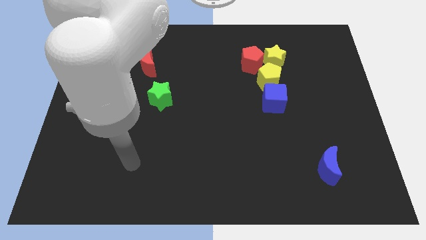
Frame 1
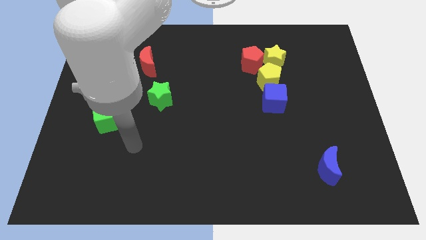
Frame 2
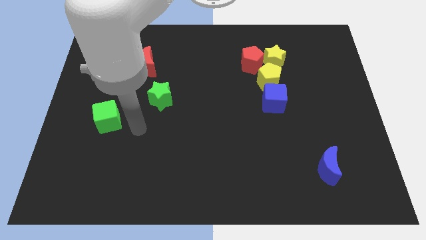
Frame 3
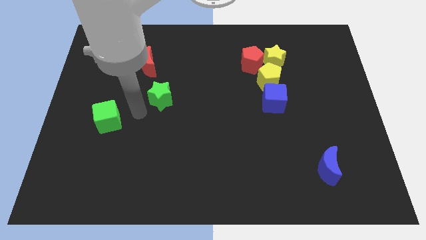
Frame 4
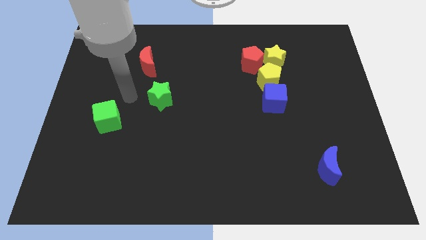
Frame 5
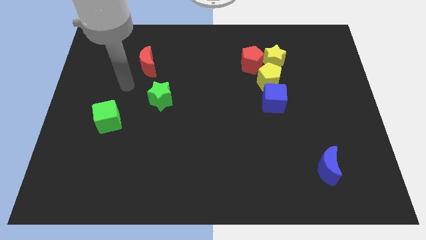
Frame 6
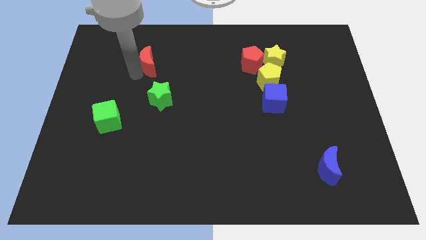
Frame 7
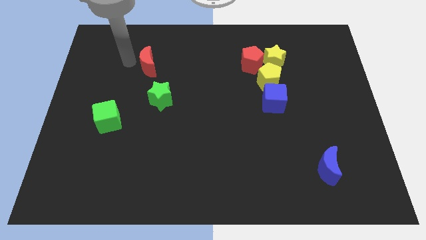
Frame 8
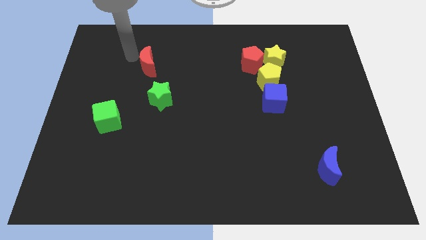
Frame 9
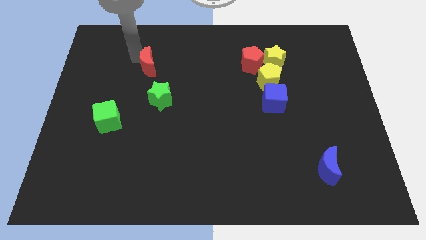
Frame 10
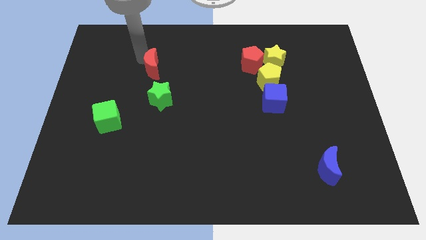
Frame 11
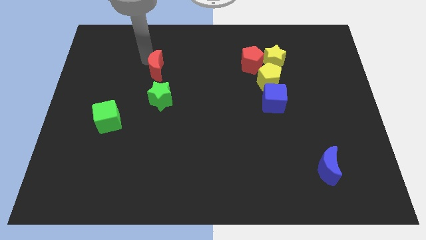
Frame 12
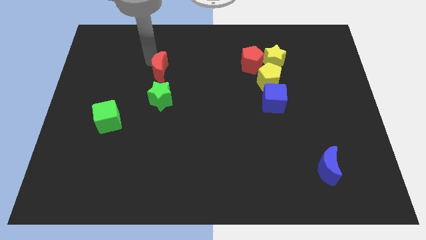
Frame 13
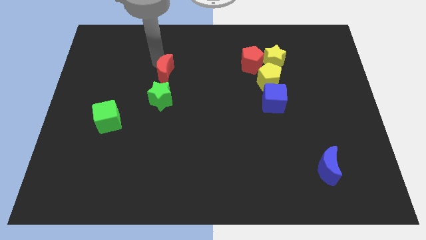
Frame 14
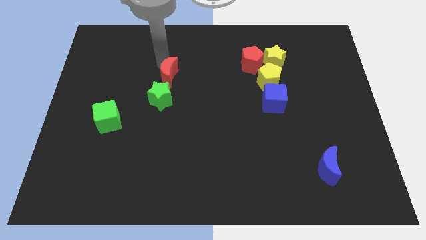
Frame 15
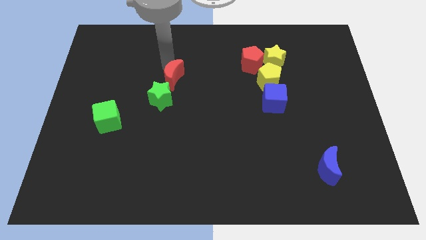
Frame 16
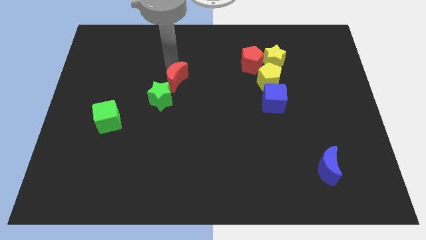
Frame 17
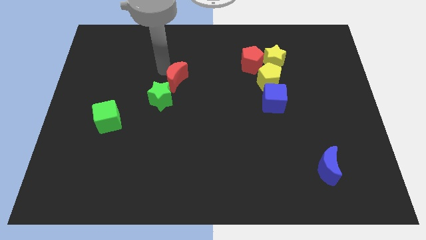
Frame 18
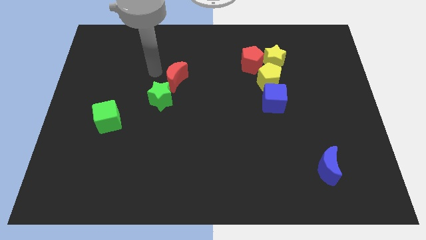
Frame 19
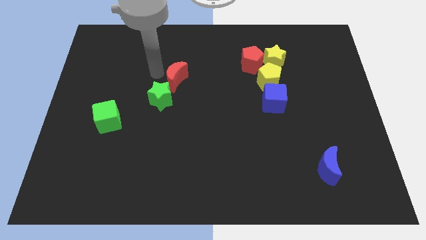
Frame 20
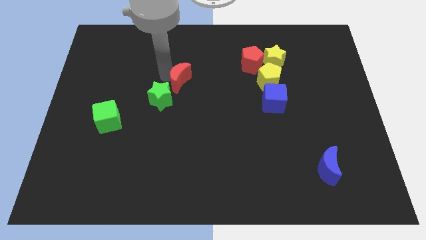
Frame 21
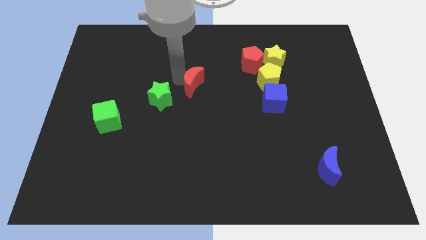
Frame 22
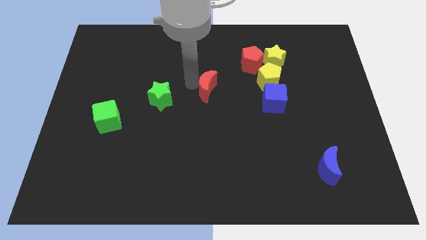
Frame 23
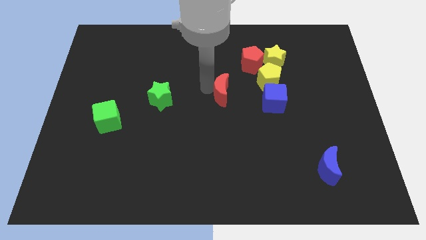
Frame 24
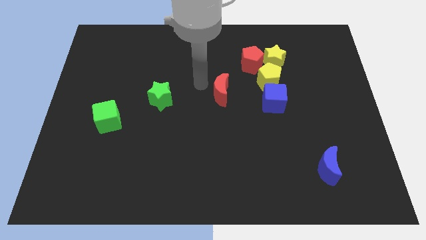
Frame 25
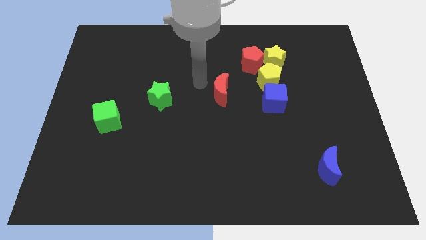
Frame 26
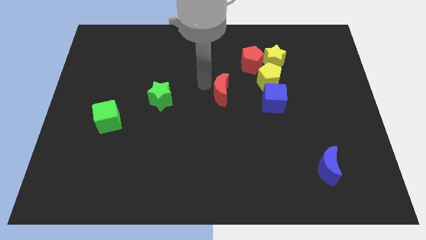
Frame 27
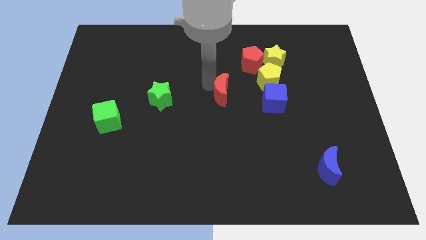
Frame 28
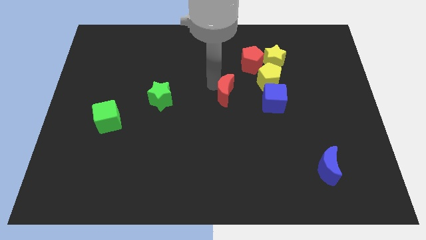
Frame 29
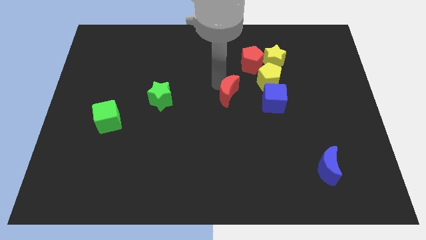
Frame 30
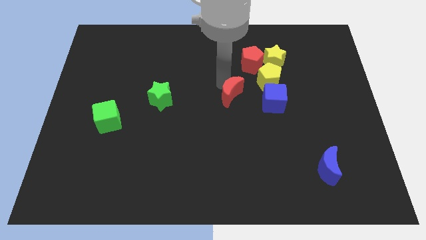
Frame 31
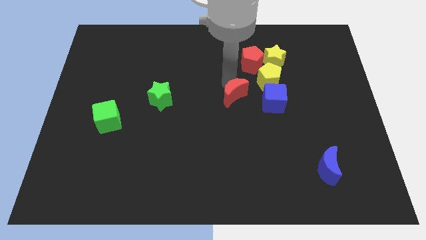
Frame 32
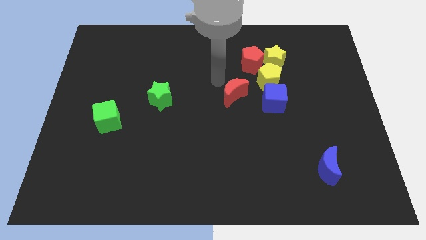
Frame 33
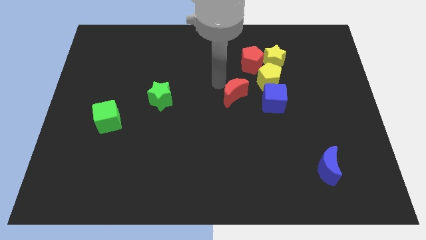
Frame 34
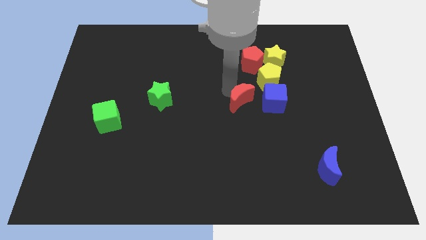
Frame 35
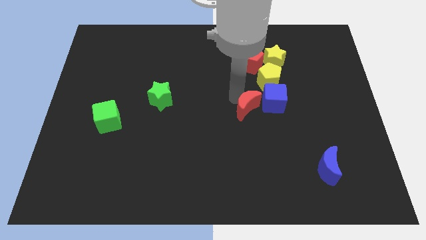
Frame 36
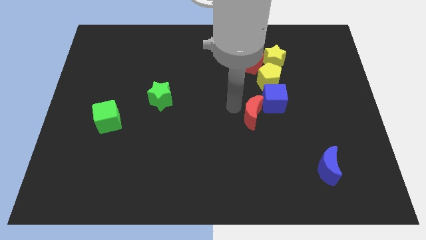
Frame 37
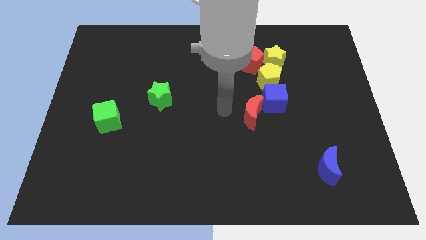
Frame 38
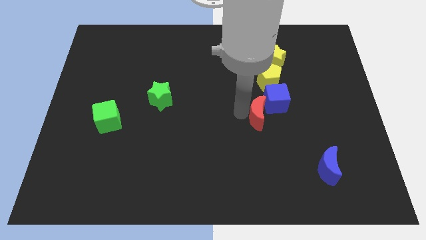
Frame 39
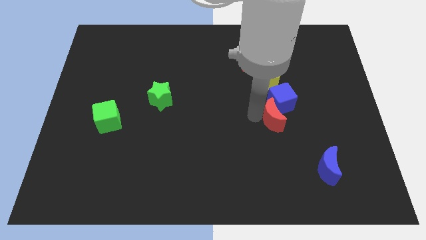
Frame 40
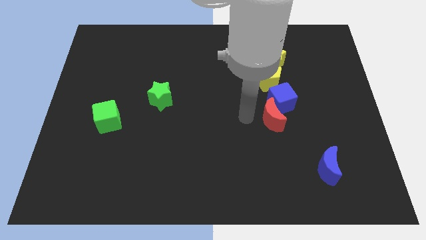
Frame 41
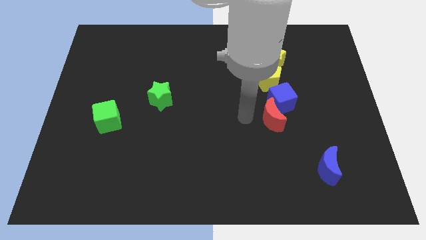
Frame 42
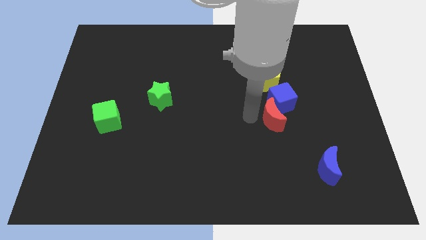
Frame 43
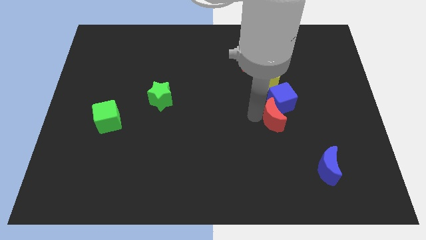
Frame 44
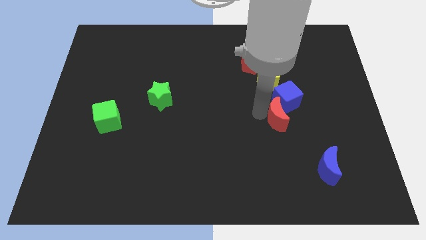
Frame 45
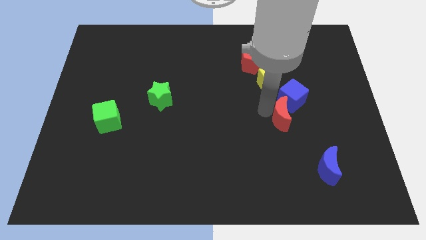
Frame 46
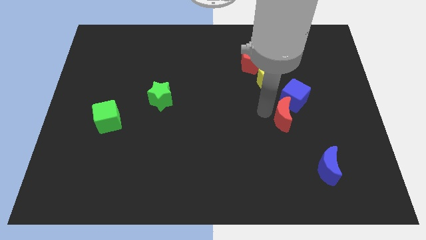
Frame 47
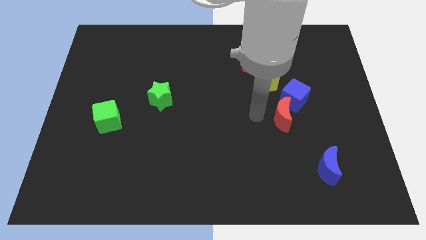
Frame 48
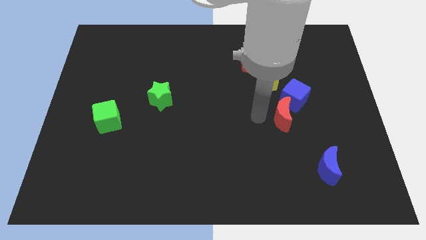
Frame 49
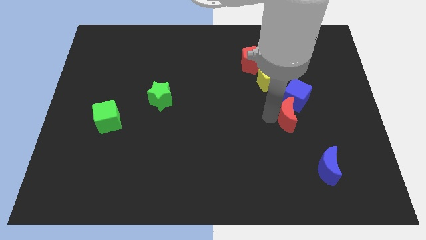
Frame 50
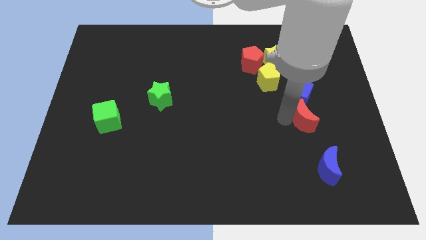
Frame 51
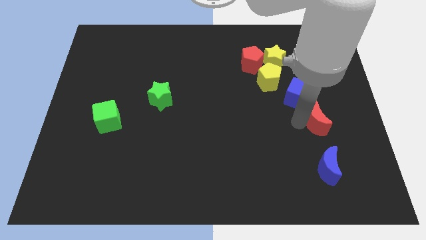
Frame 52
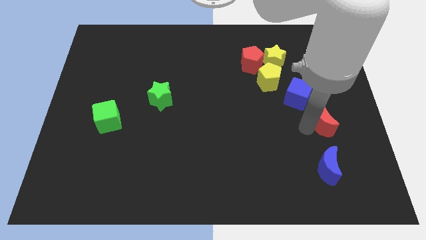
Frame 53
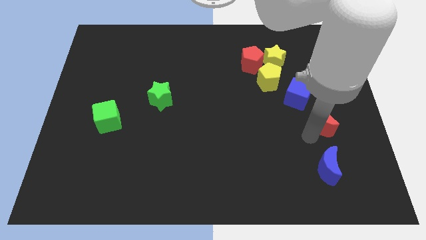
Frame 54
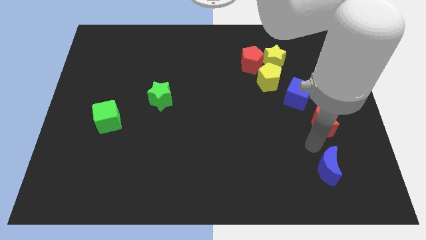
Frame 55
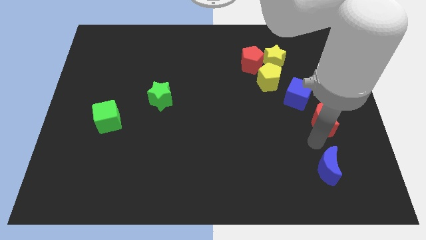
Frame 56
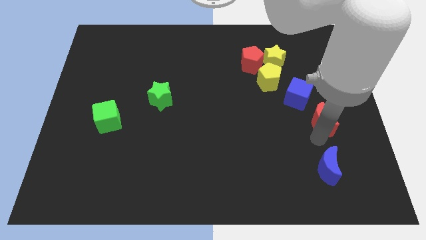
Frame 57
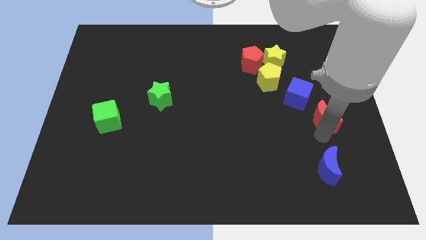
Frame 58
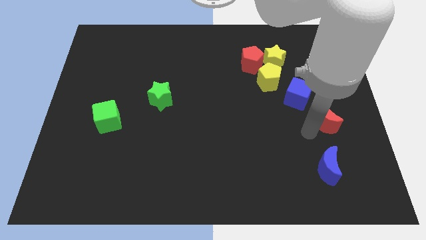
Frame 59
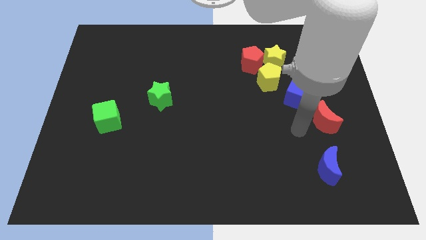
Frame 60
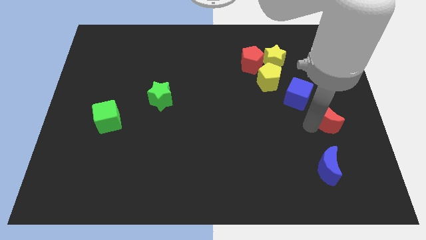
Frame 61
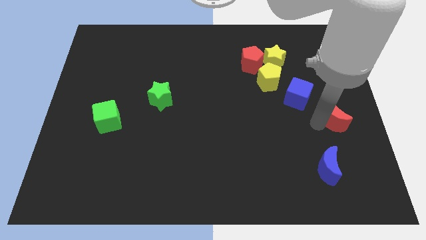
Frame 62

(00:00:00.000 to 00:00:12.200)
put the red moon to the right side

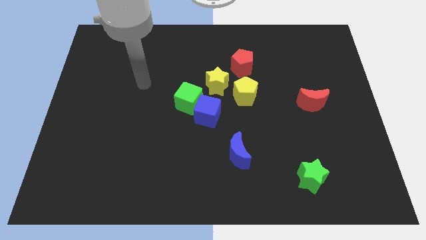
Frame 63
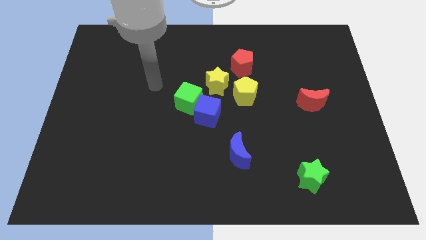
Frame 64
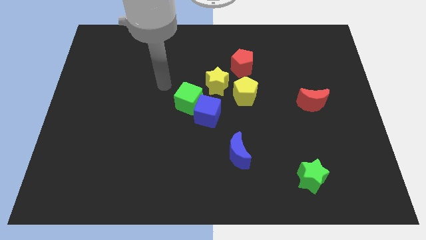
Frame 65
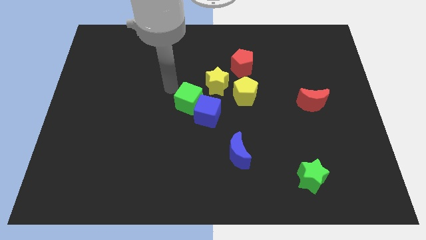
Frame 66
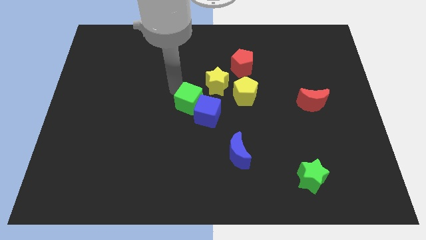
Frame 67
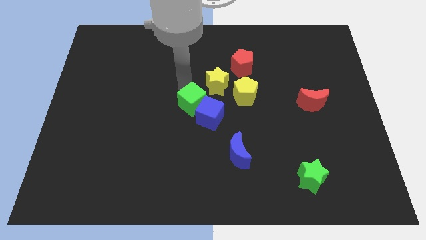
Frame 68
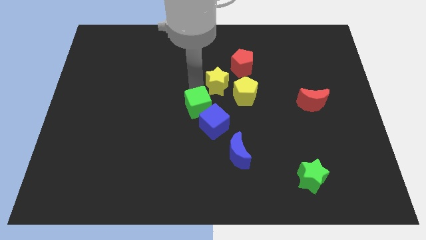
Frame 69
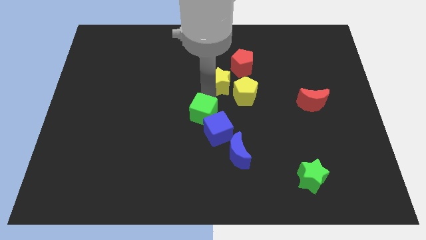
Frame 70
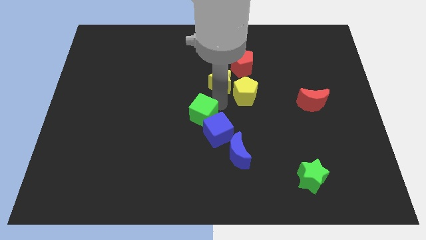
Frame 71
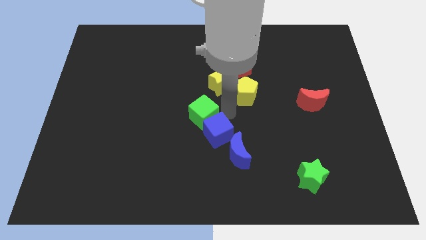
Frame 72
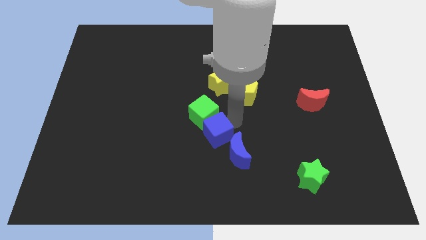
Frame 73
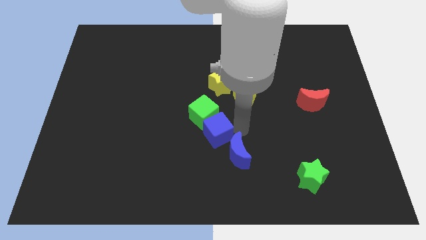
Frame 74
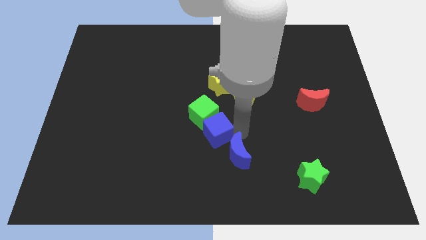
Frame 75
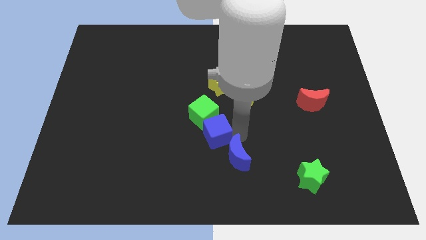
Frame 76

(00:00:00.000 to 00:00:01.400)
push the blue moon to the bottom side
